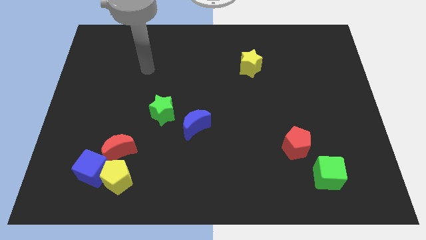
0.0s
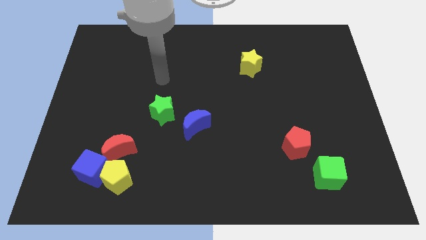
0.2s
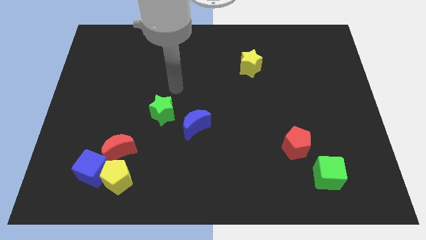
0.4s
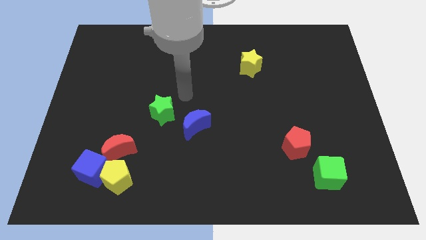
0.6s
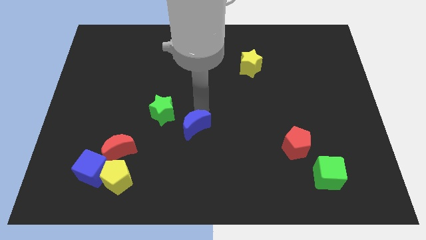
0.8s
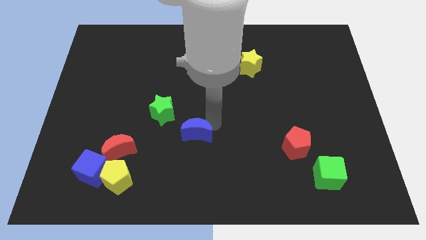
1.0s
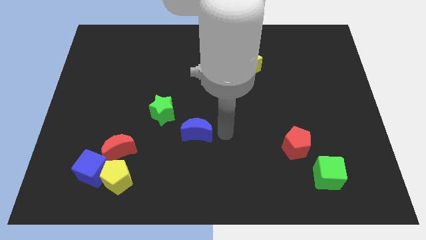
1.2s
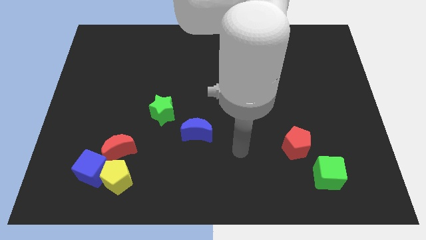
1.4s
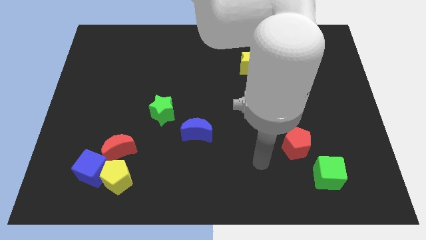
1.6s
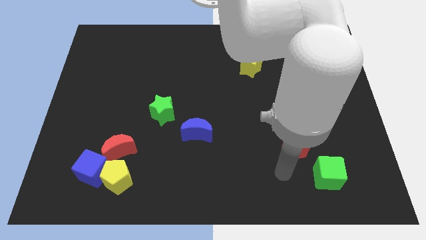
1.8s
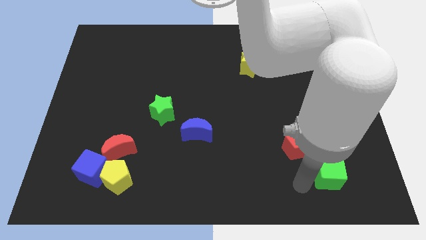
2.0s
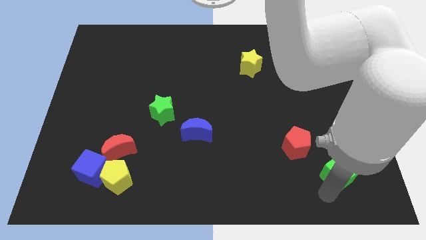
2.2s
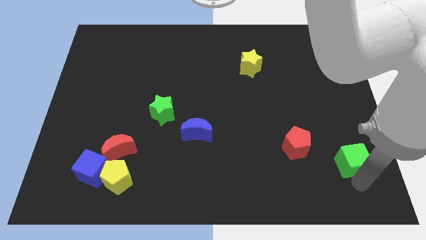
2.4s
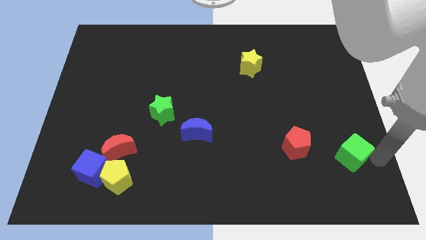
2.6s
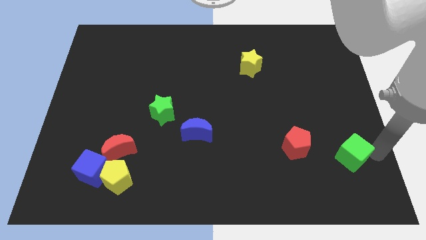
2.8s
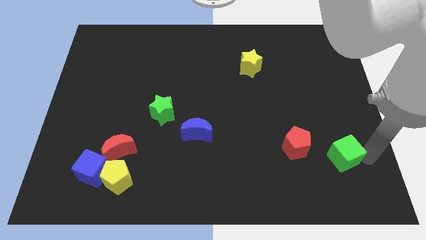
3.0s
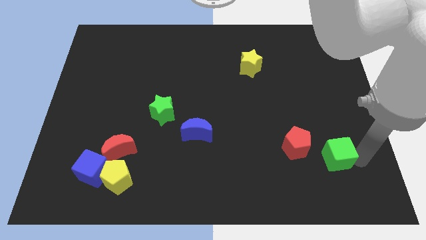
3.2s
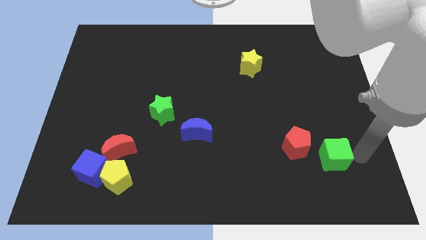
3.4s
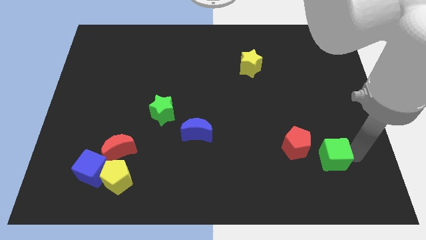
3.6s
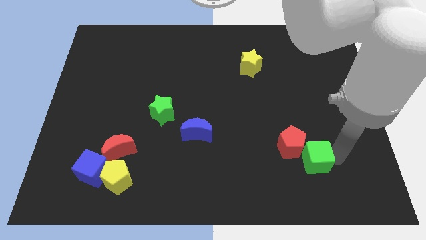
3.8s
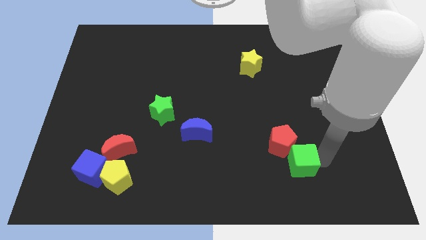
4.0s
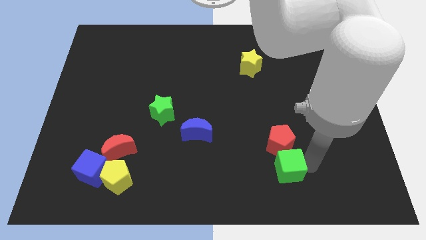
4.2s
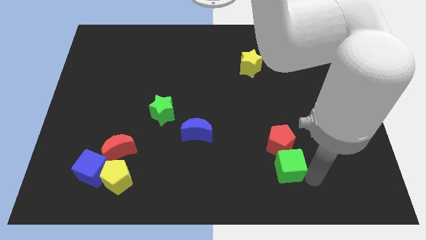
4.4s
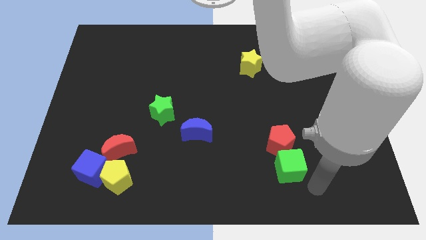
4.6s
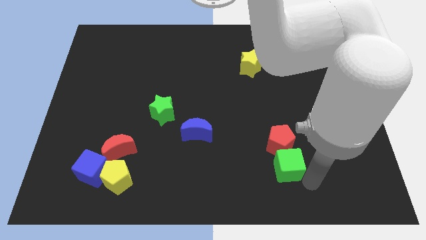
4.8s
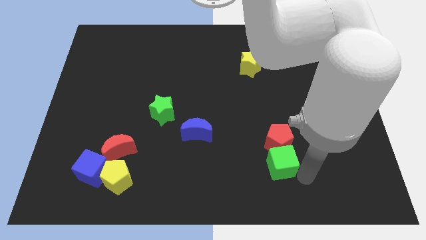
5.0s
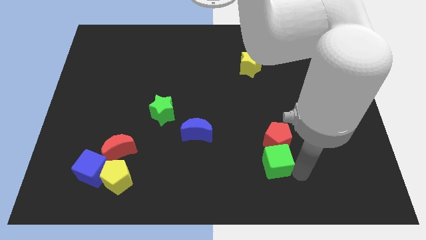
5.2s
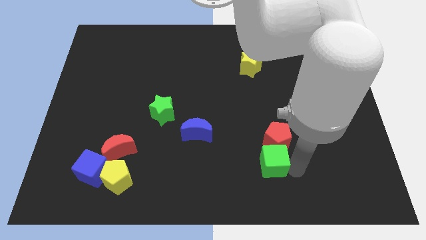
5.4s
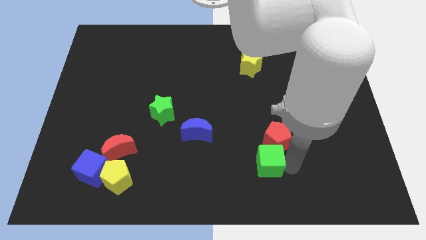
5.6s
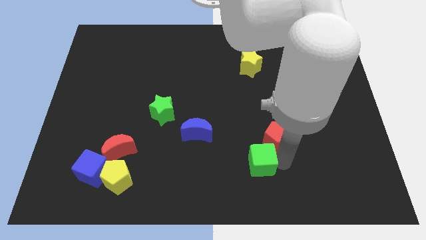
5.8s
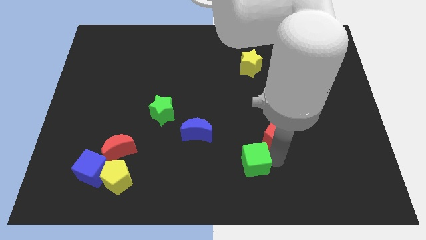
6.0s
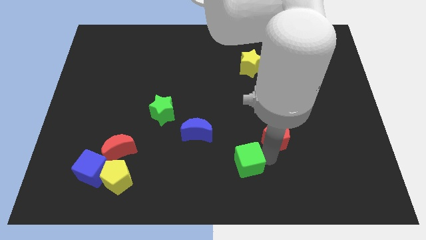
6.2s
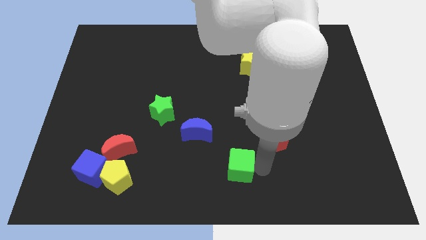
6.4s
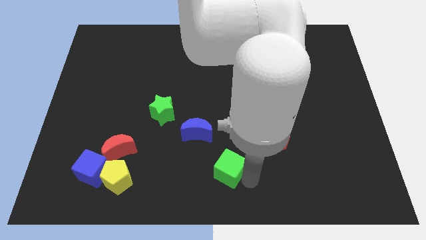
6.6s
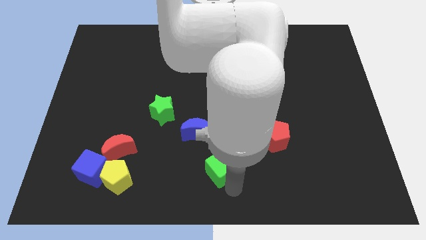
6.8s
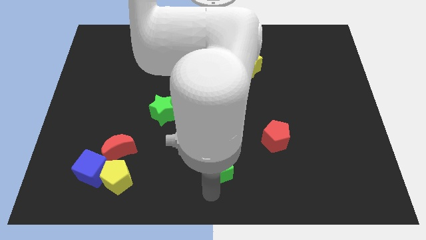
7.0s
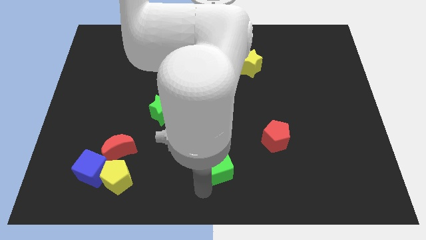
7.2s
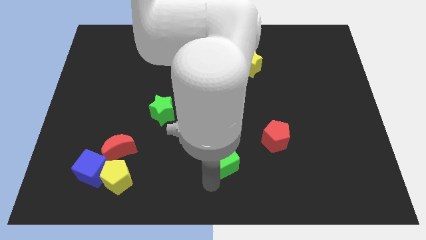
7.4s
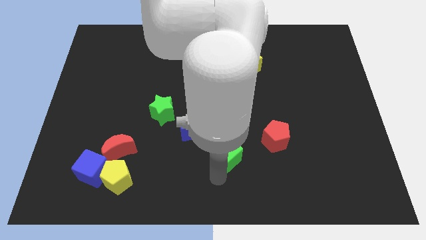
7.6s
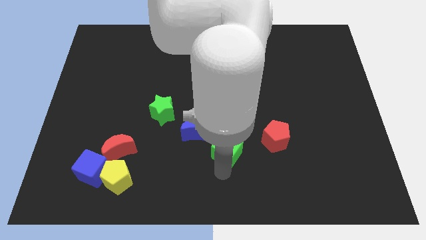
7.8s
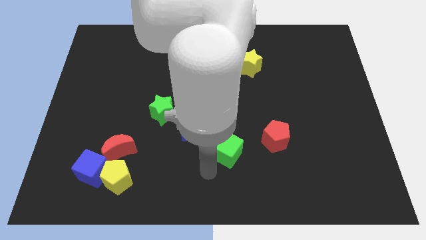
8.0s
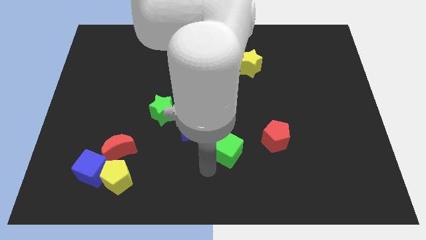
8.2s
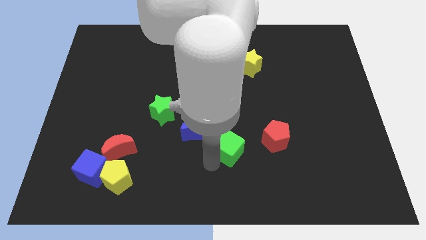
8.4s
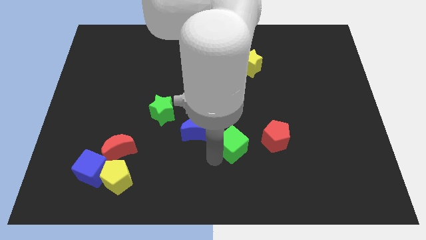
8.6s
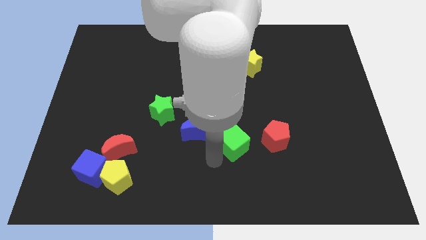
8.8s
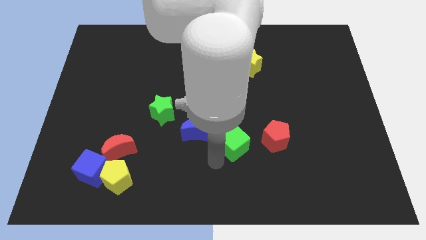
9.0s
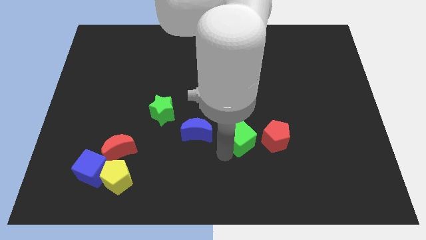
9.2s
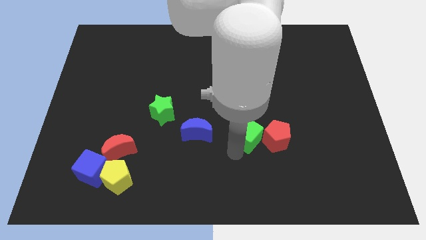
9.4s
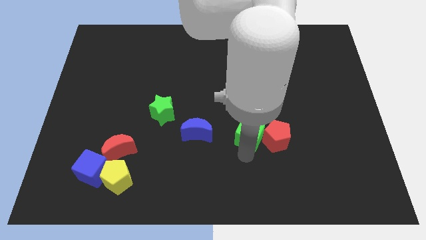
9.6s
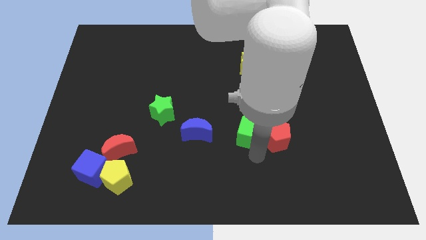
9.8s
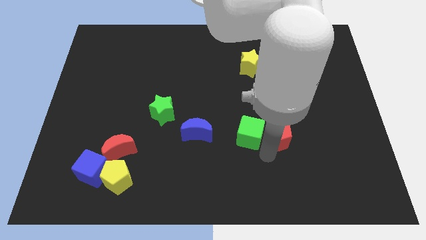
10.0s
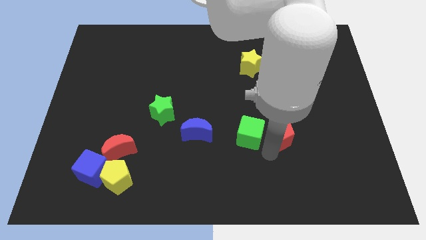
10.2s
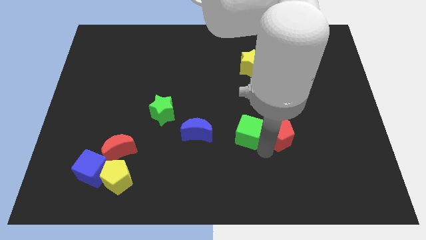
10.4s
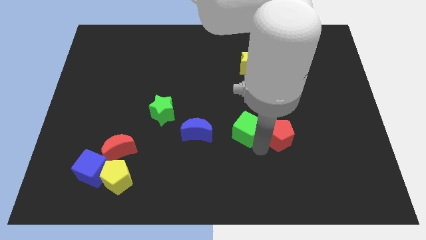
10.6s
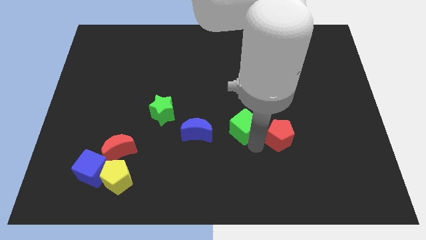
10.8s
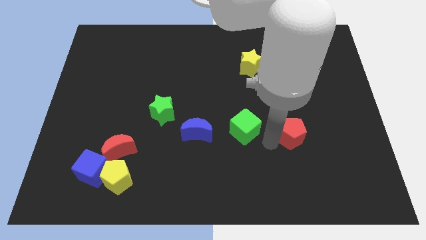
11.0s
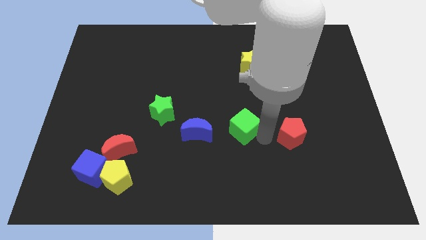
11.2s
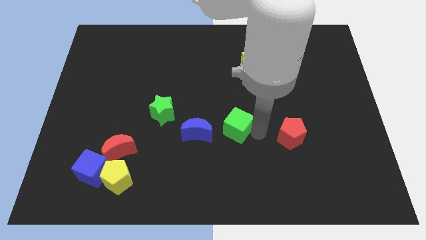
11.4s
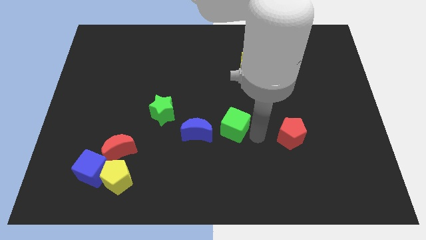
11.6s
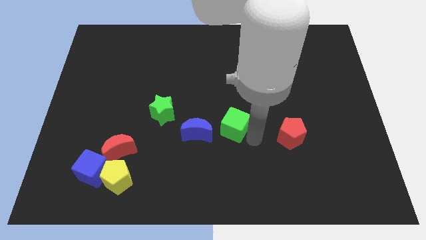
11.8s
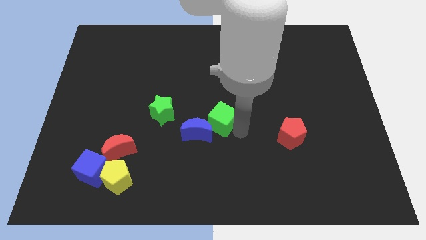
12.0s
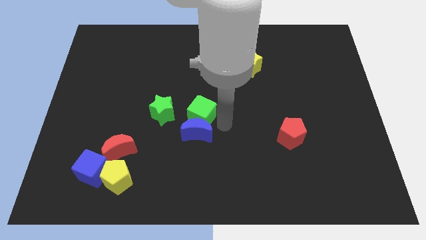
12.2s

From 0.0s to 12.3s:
slide the green cube to the top left of the blue moon

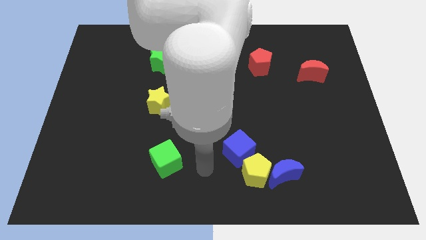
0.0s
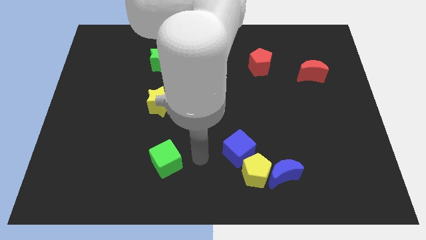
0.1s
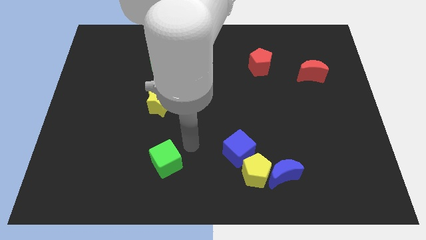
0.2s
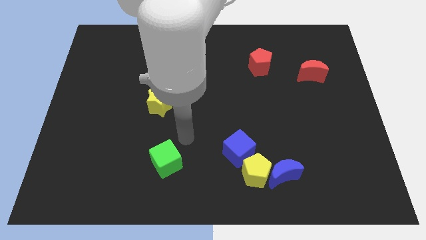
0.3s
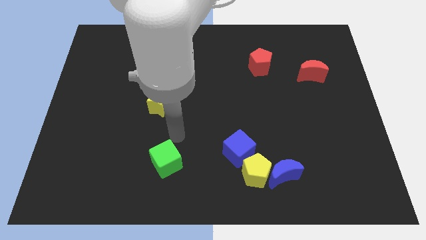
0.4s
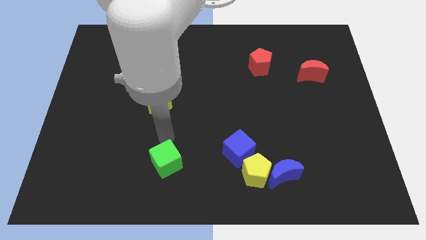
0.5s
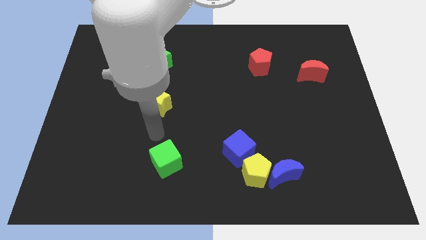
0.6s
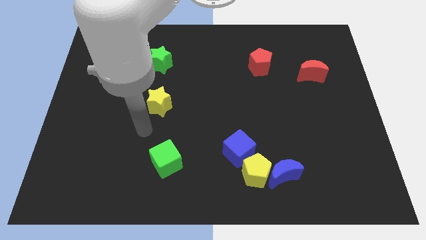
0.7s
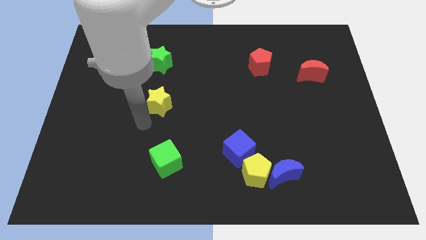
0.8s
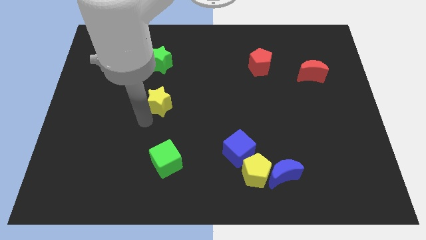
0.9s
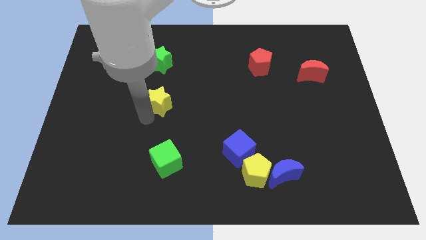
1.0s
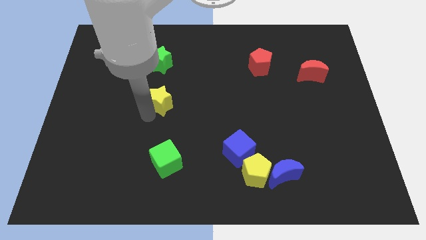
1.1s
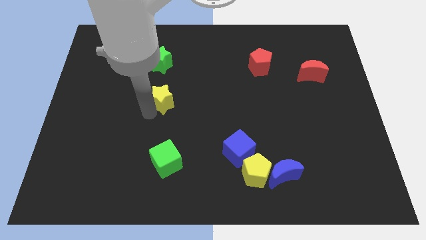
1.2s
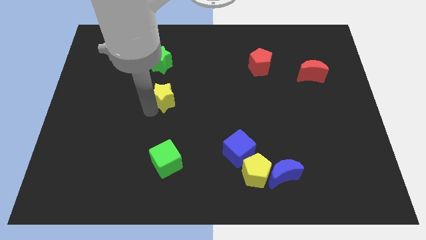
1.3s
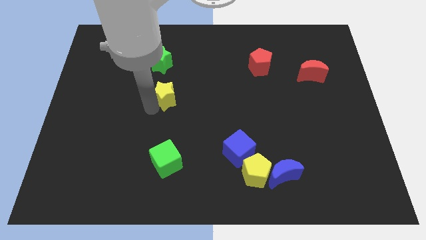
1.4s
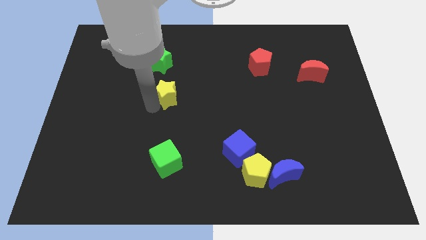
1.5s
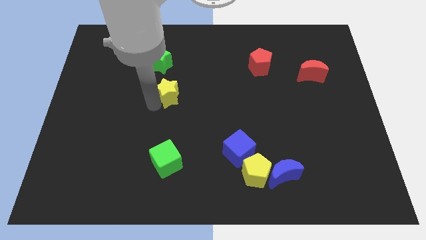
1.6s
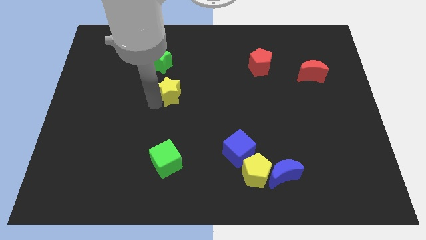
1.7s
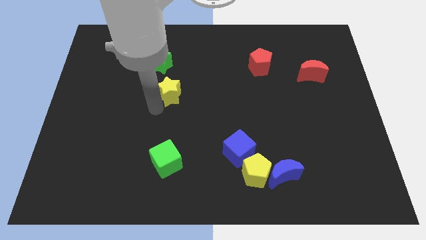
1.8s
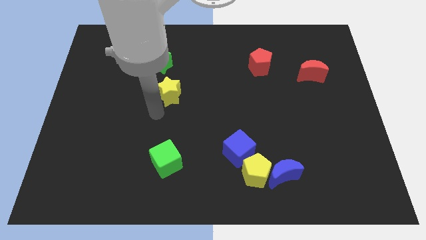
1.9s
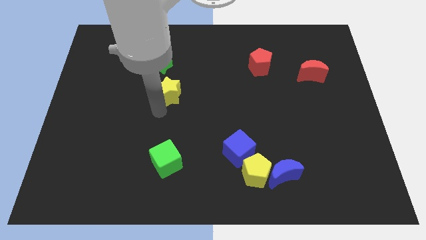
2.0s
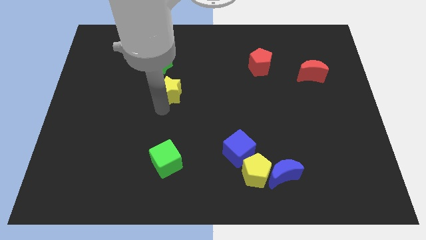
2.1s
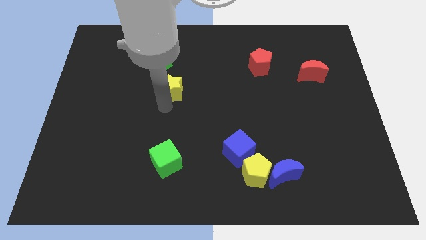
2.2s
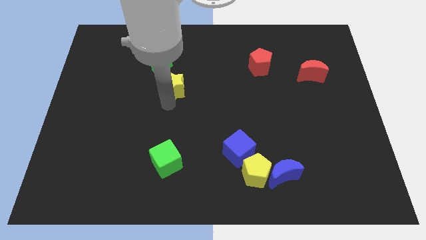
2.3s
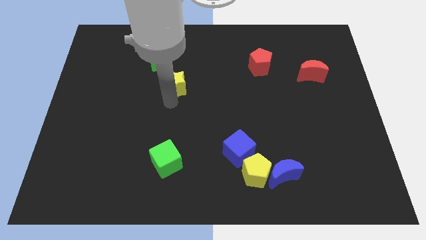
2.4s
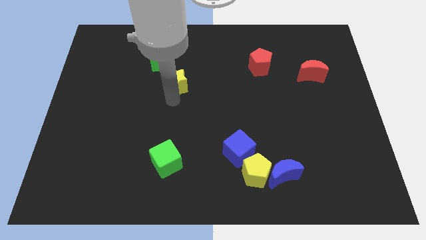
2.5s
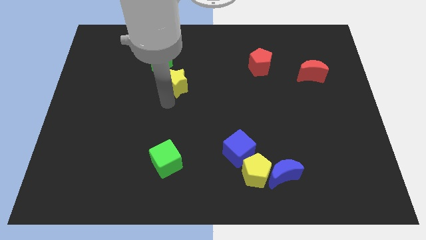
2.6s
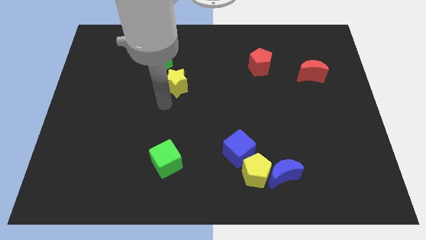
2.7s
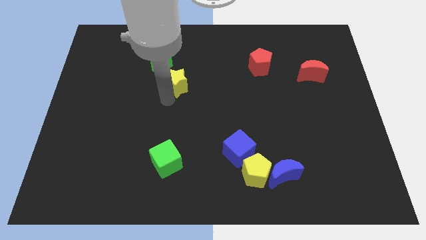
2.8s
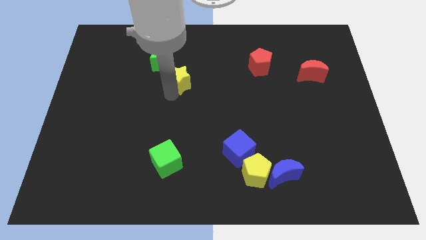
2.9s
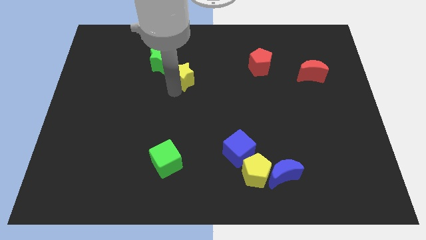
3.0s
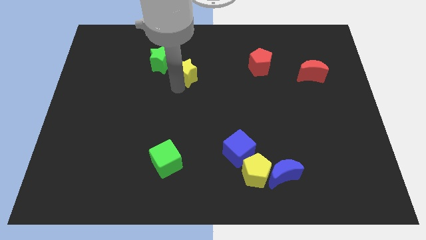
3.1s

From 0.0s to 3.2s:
move the yellow star to the right of the green star
